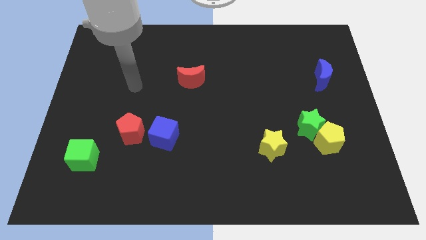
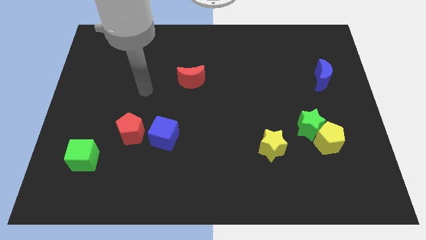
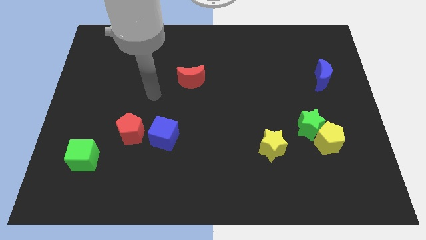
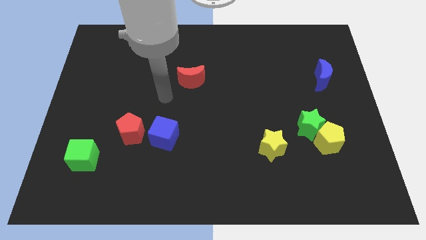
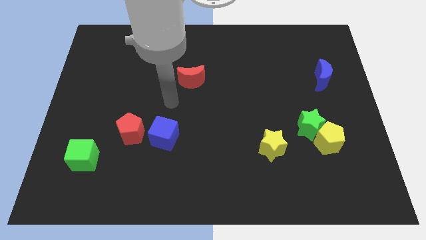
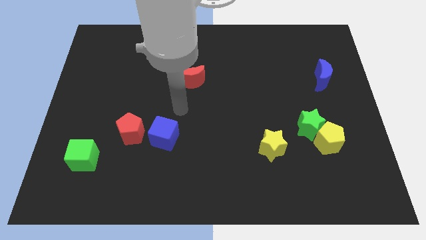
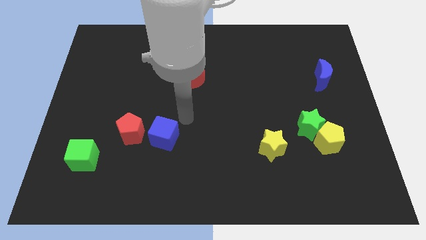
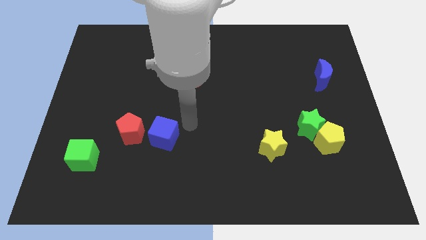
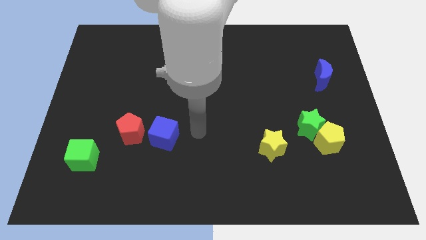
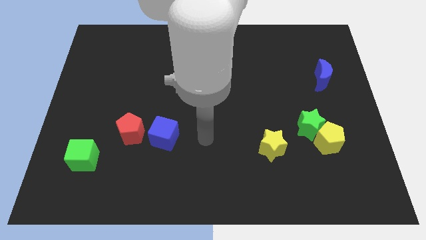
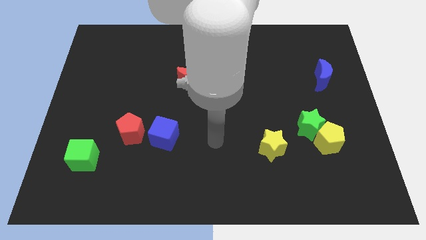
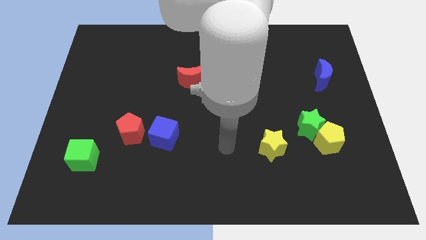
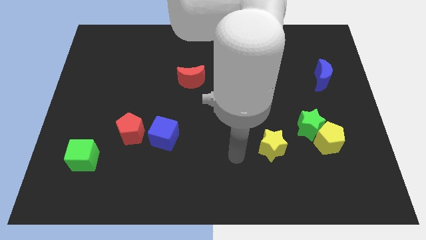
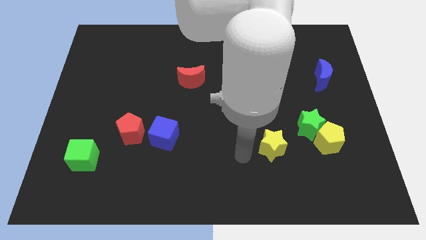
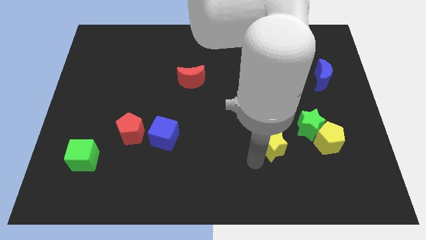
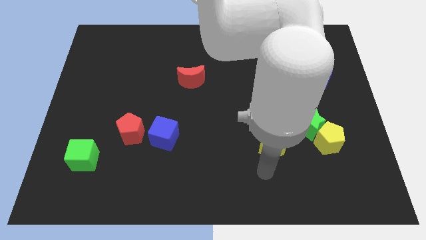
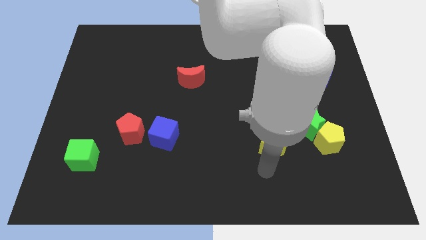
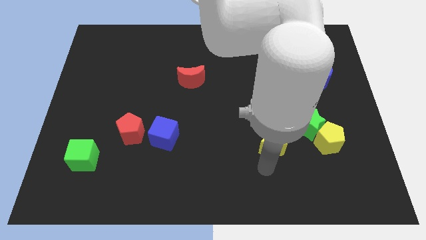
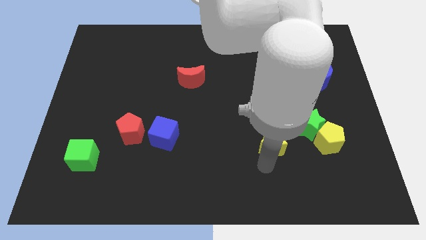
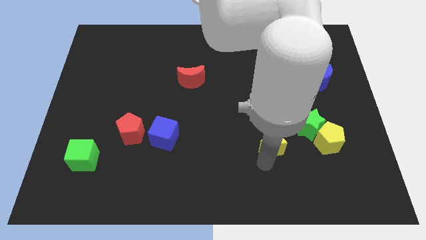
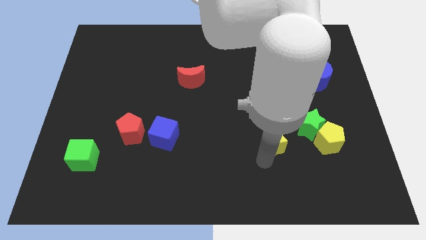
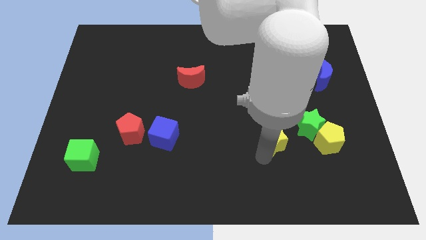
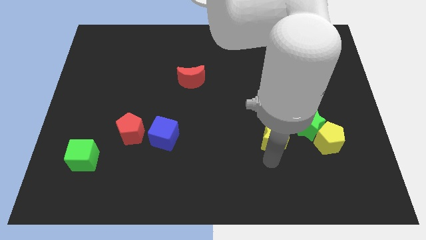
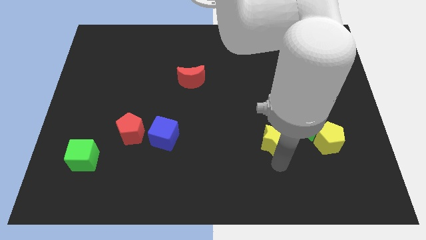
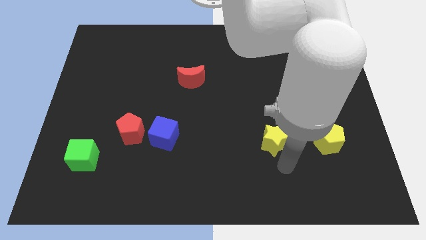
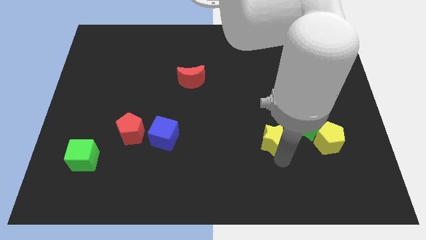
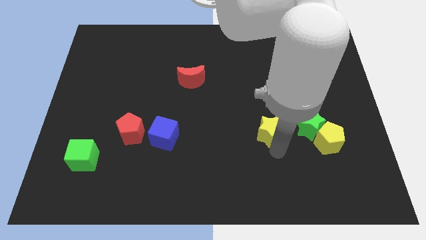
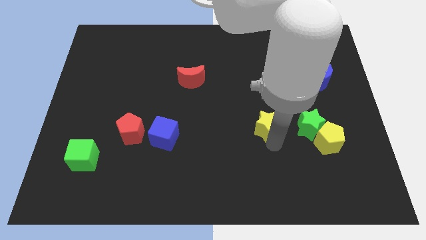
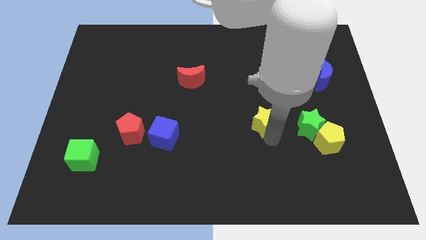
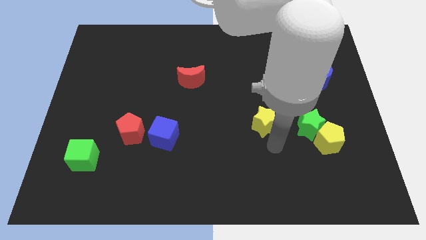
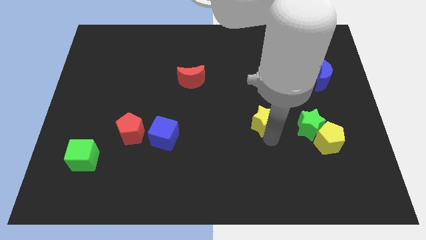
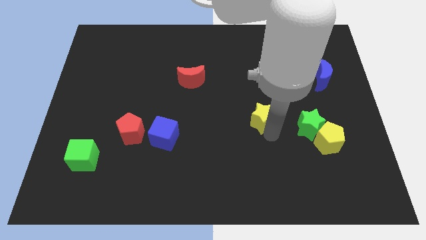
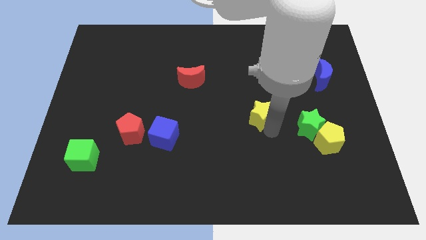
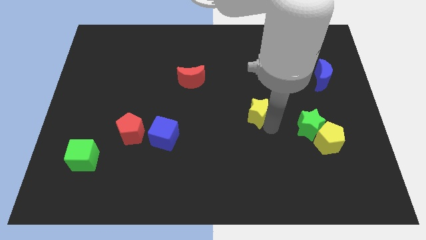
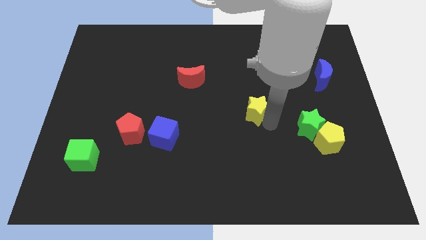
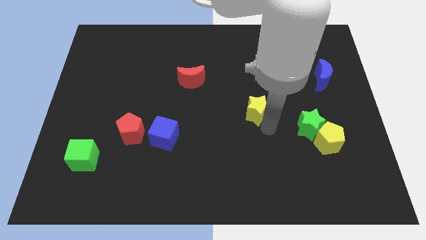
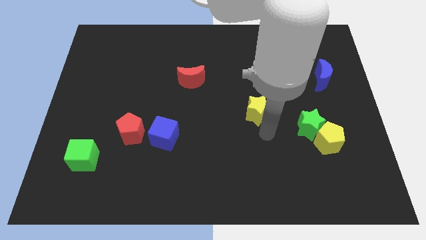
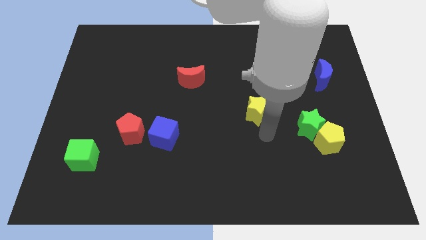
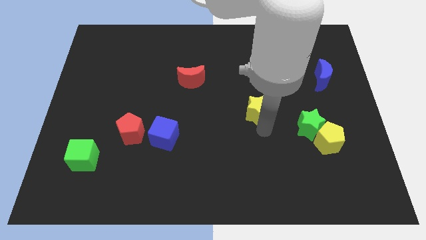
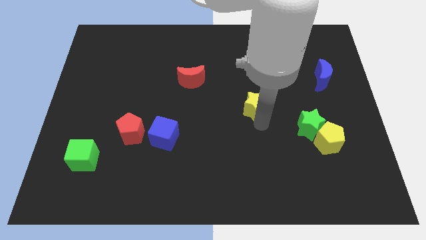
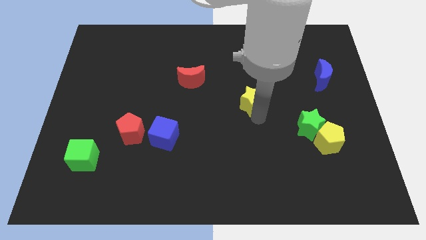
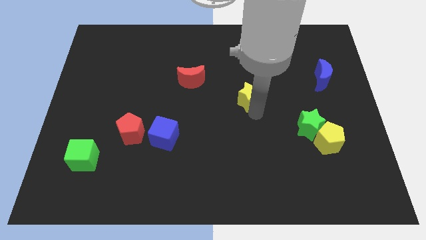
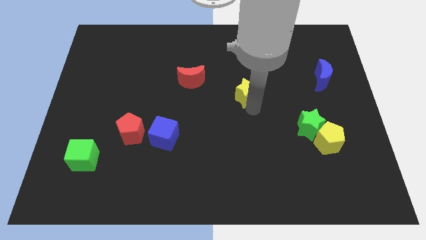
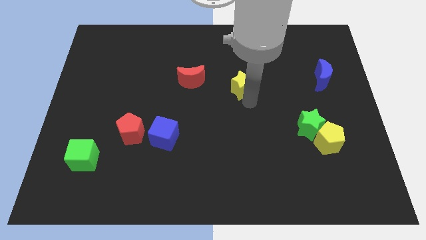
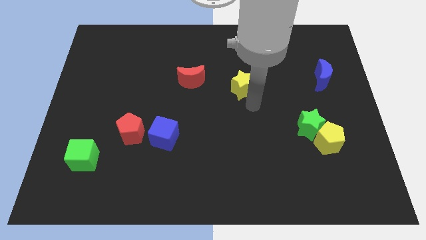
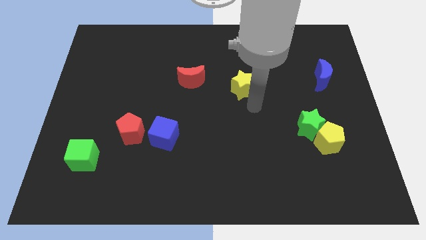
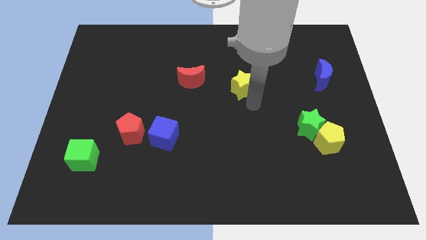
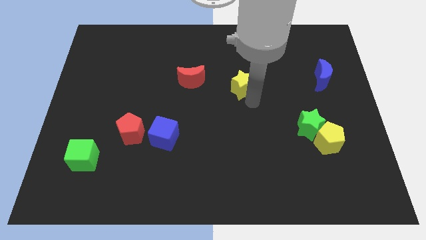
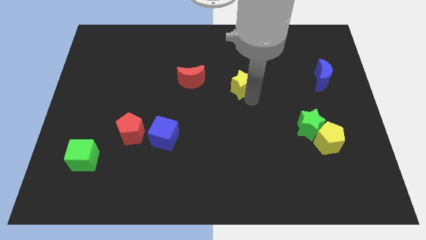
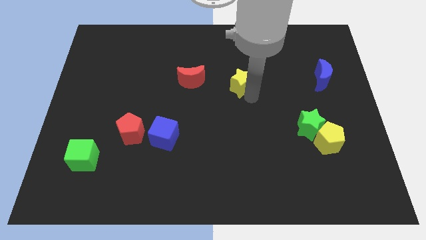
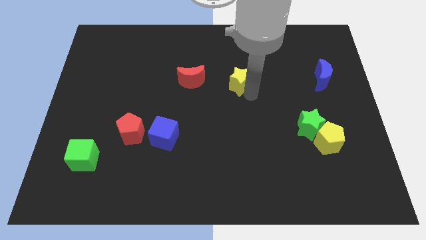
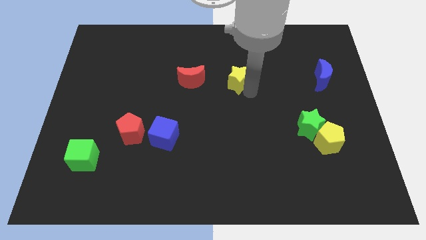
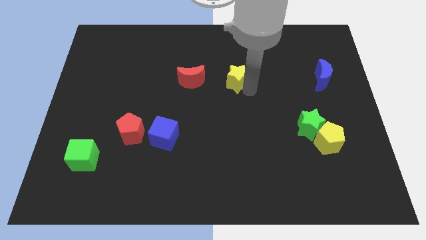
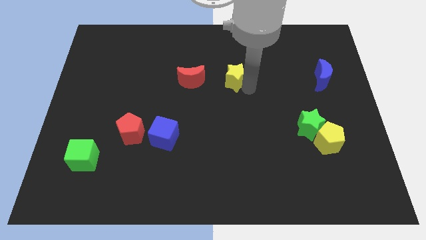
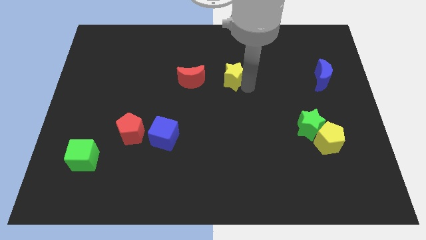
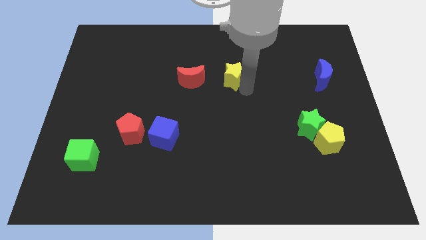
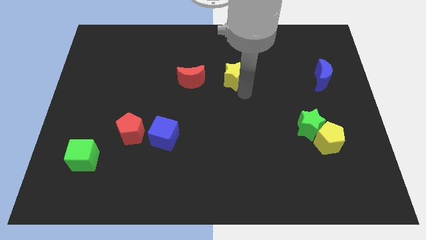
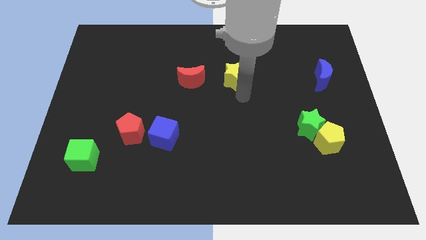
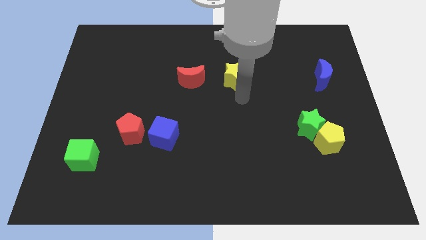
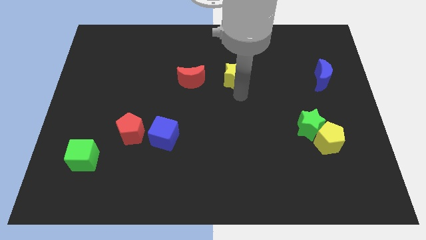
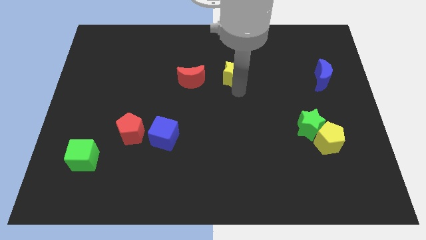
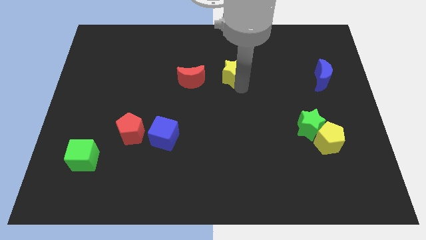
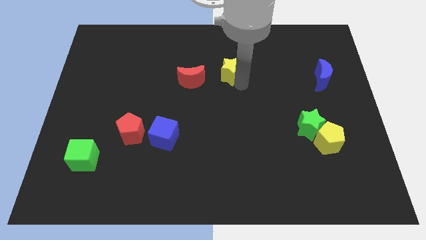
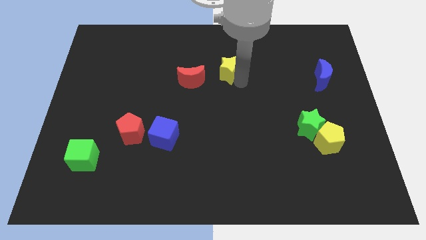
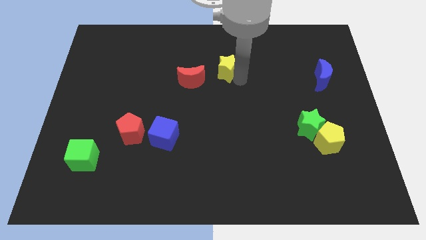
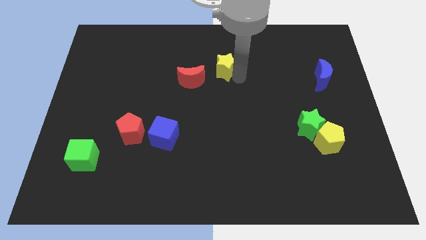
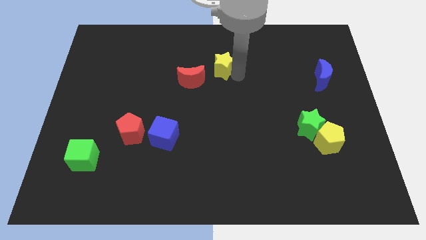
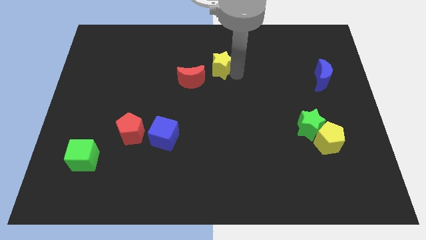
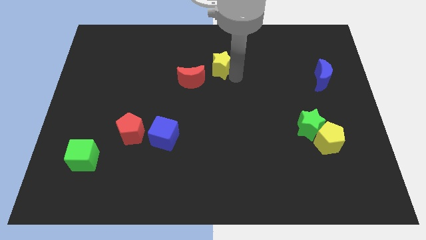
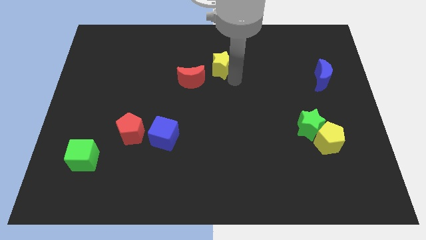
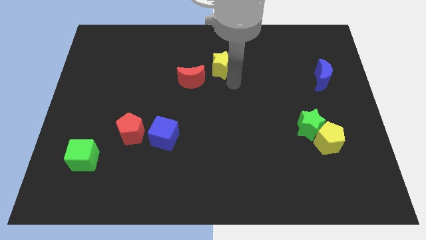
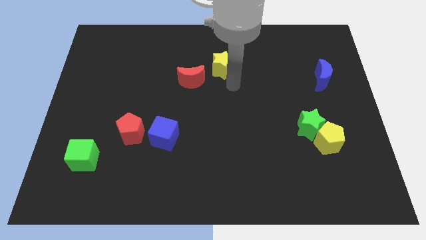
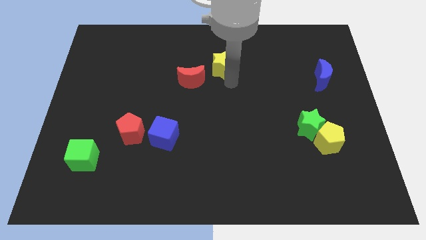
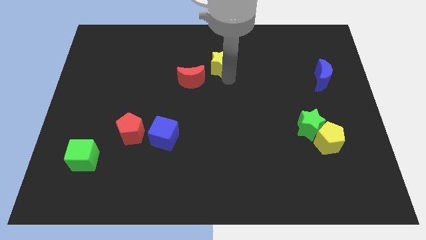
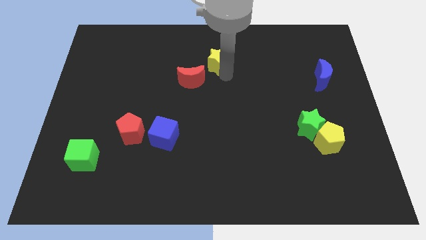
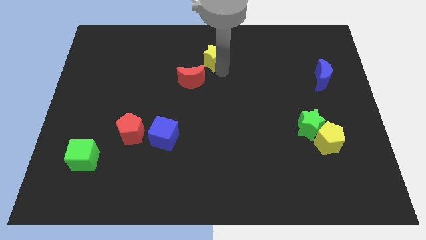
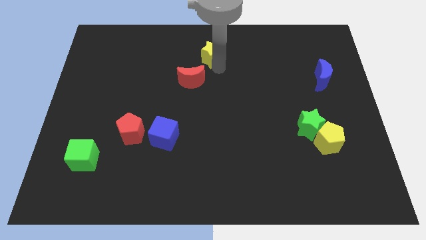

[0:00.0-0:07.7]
push the yellow star to the towards your base
